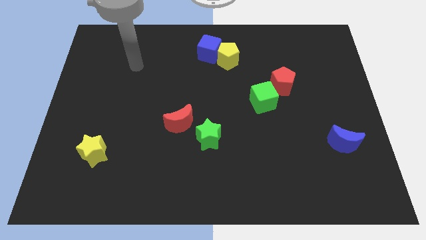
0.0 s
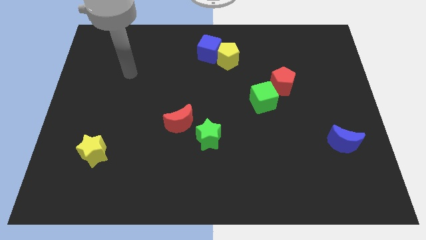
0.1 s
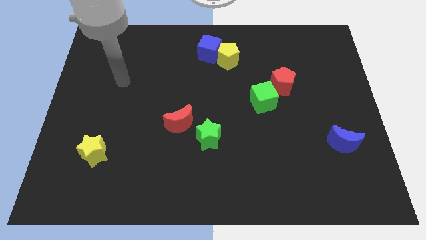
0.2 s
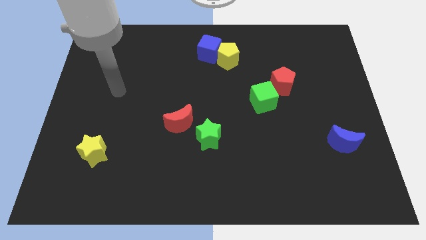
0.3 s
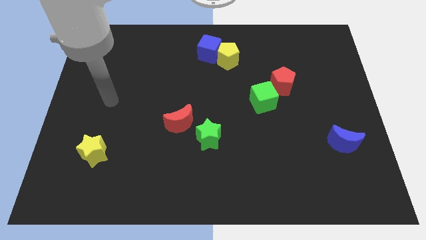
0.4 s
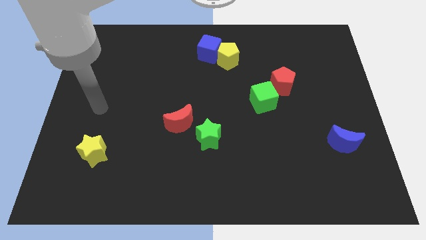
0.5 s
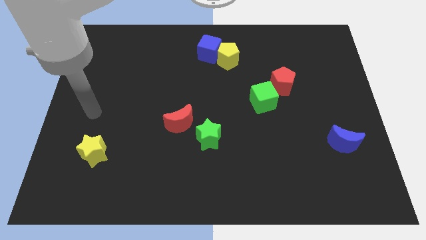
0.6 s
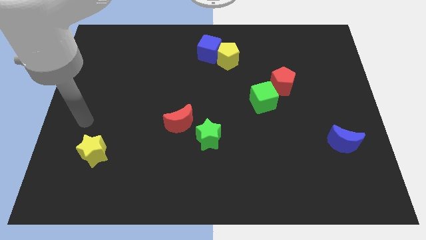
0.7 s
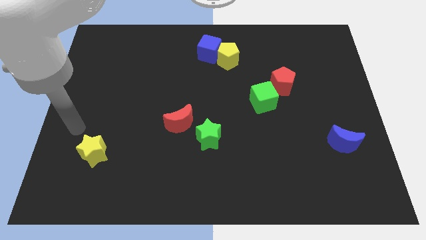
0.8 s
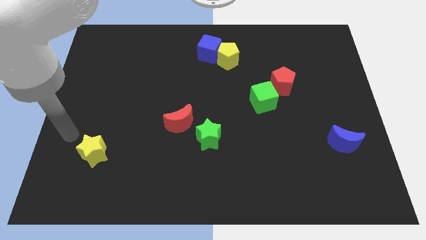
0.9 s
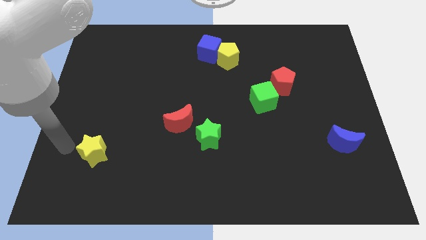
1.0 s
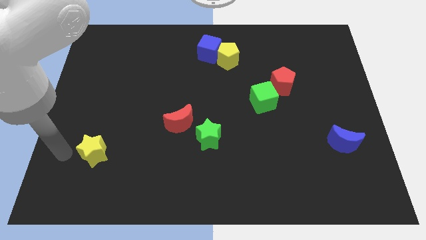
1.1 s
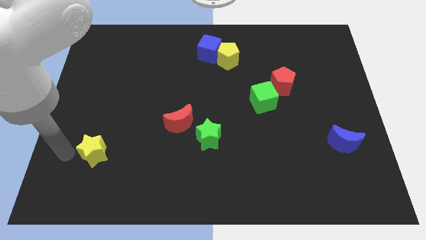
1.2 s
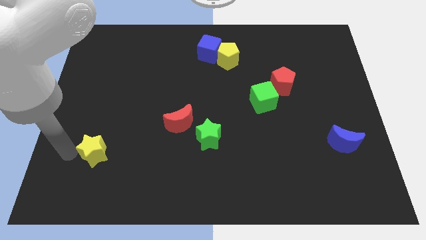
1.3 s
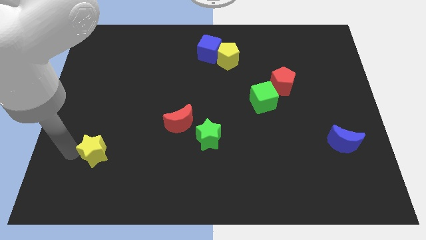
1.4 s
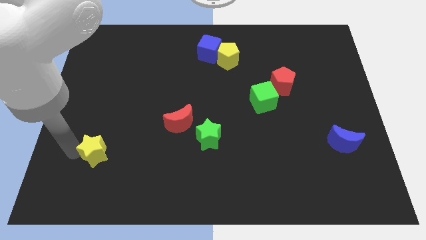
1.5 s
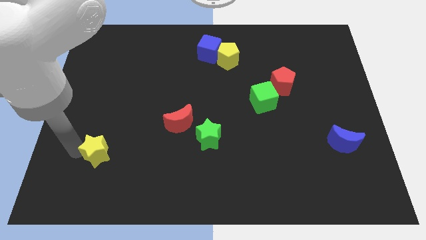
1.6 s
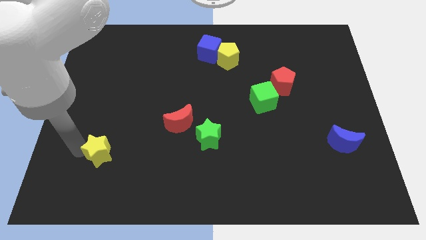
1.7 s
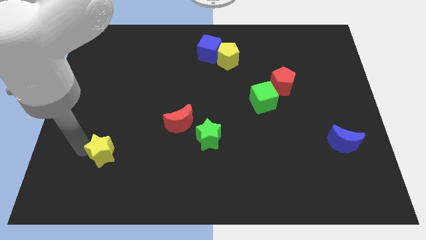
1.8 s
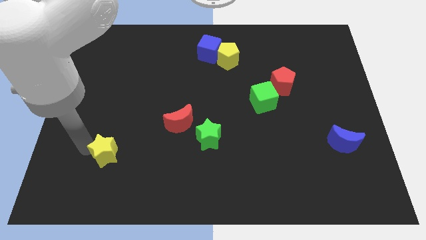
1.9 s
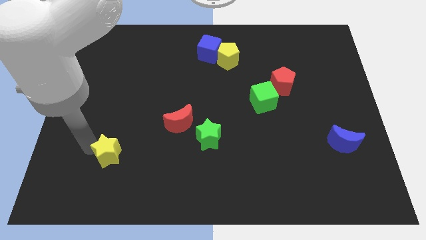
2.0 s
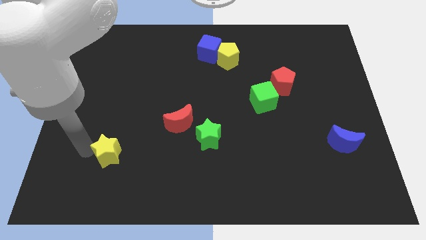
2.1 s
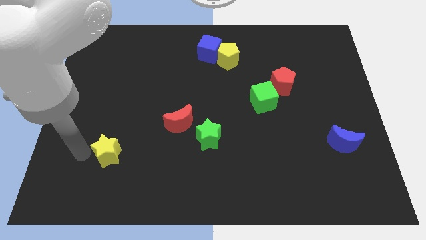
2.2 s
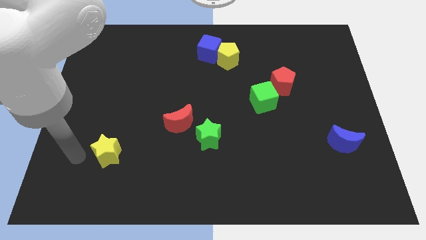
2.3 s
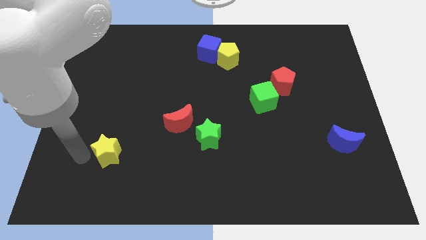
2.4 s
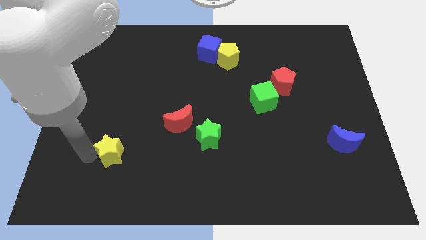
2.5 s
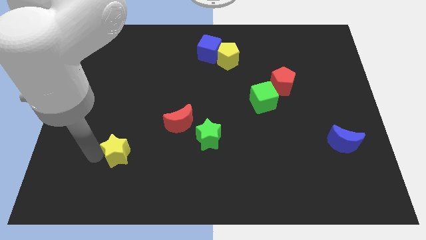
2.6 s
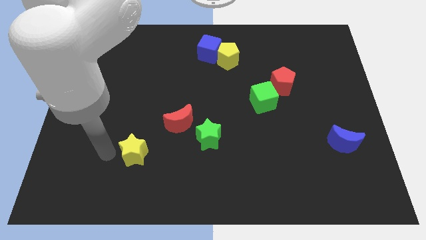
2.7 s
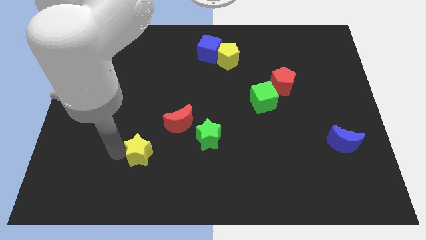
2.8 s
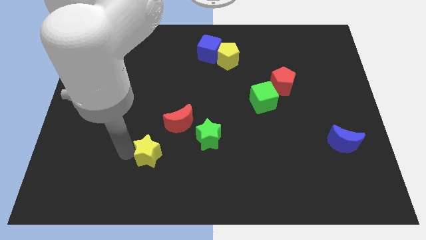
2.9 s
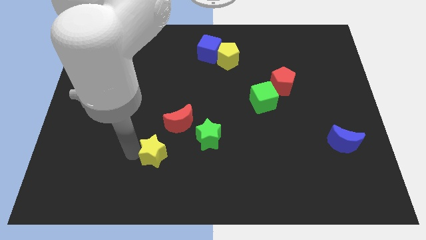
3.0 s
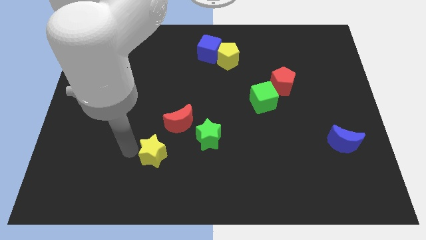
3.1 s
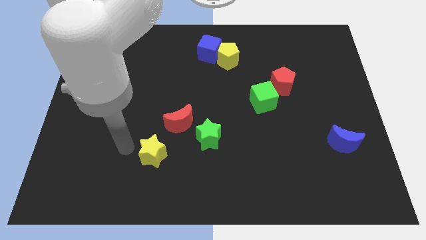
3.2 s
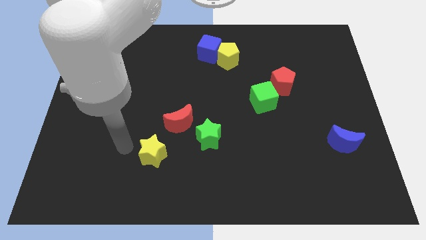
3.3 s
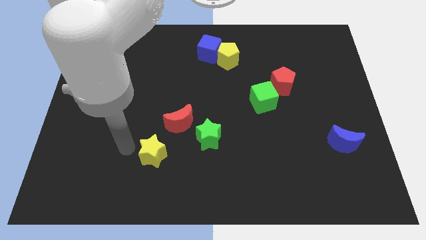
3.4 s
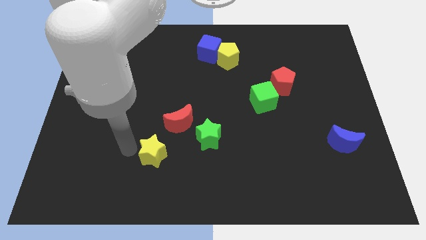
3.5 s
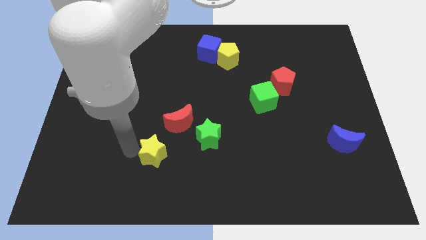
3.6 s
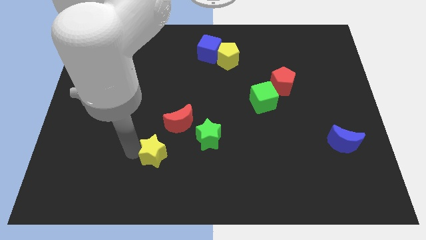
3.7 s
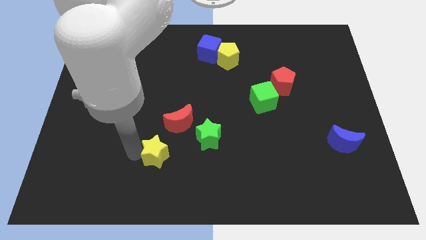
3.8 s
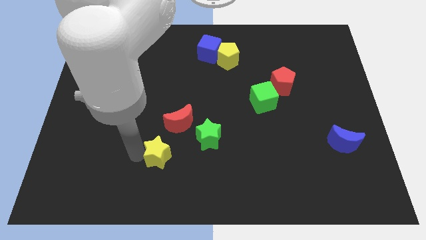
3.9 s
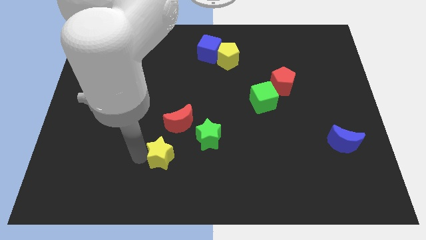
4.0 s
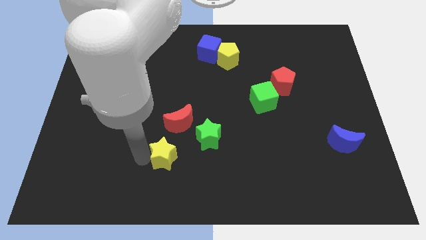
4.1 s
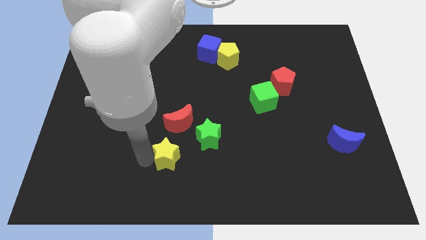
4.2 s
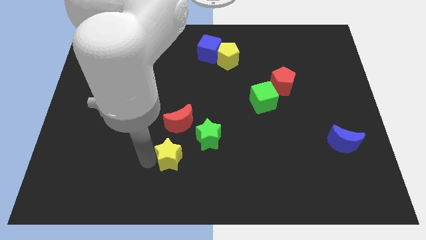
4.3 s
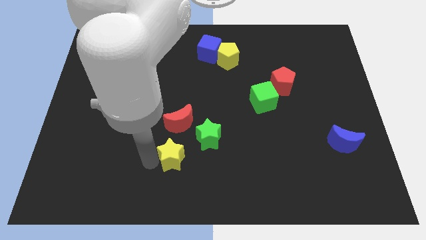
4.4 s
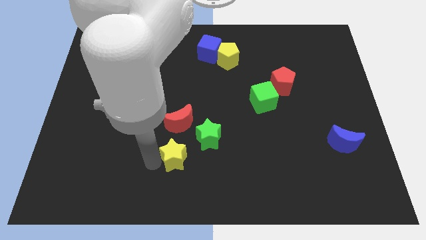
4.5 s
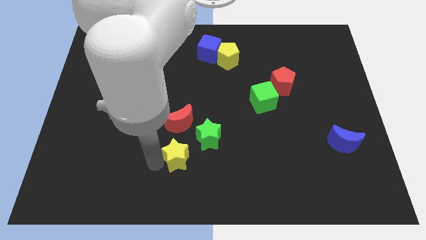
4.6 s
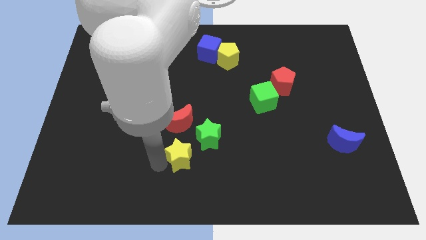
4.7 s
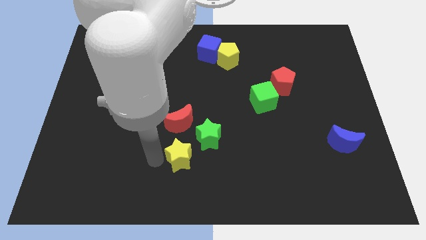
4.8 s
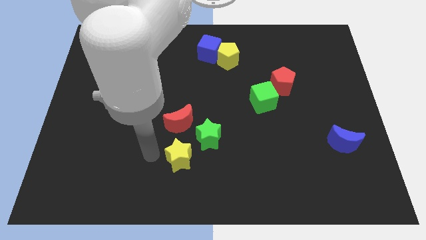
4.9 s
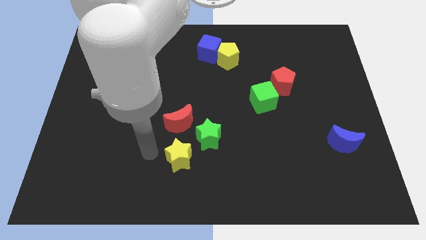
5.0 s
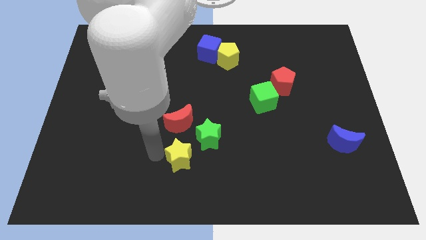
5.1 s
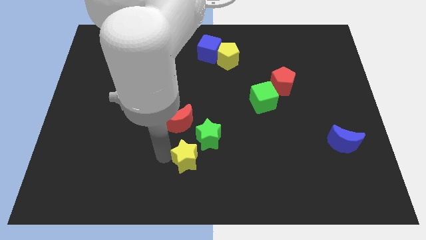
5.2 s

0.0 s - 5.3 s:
slide the yellow star right

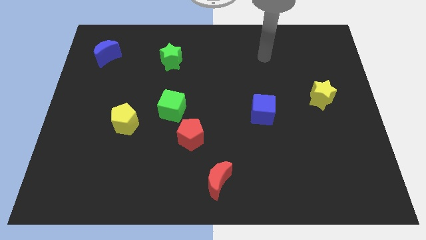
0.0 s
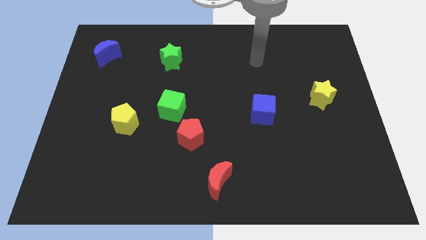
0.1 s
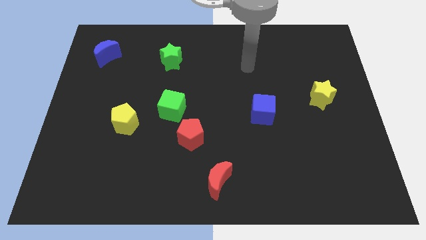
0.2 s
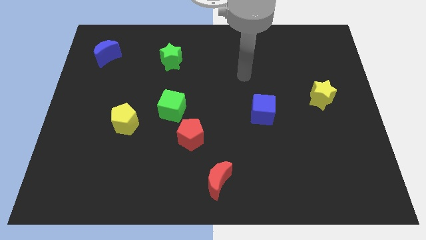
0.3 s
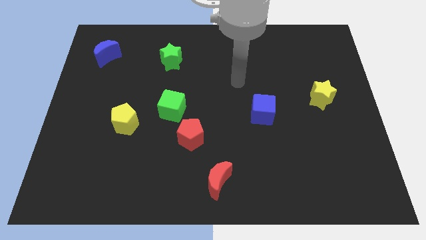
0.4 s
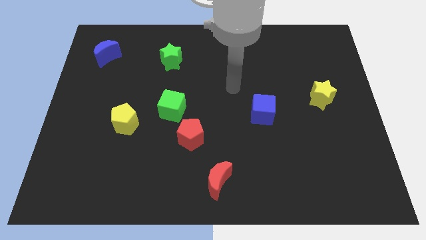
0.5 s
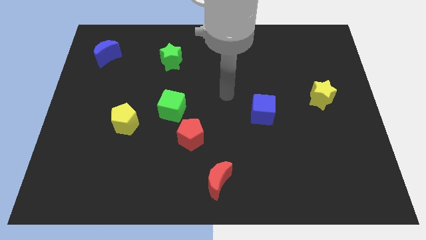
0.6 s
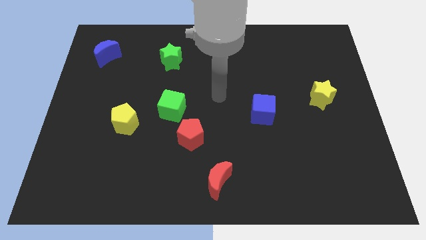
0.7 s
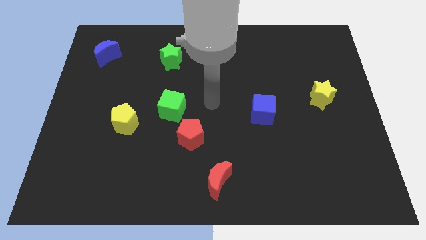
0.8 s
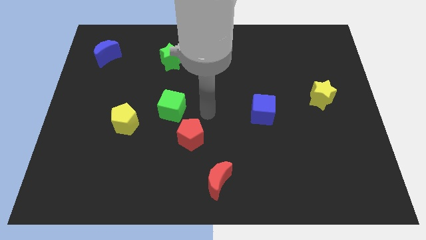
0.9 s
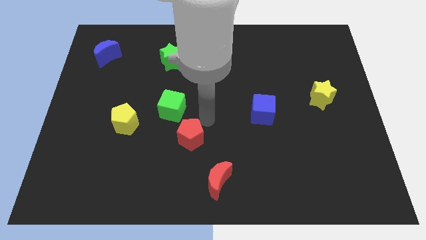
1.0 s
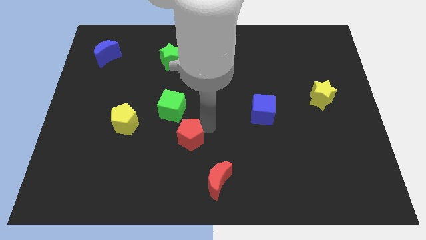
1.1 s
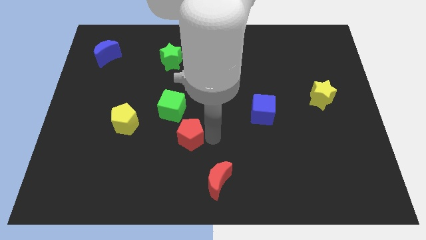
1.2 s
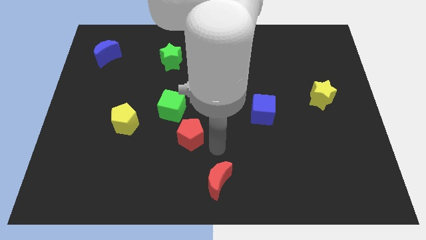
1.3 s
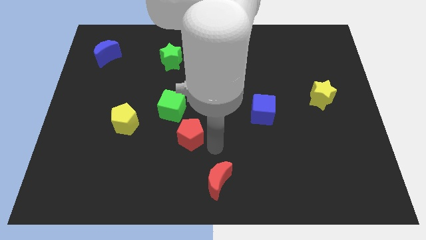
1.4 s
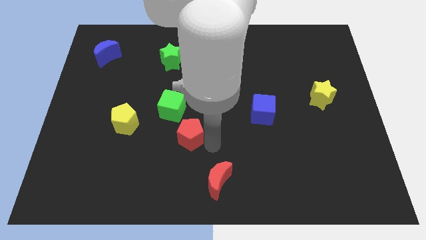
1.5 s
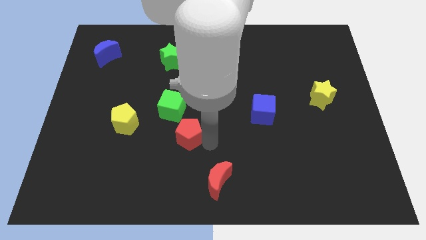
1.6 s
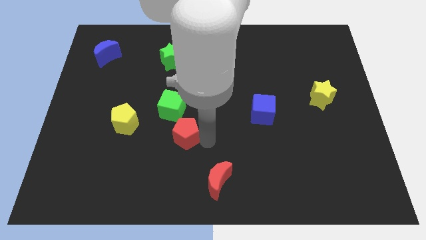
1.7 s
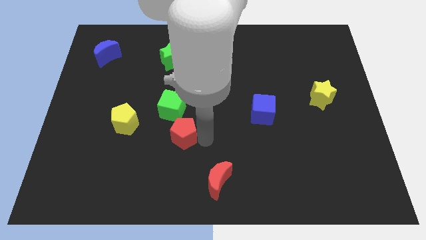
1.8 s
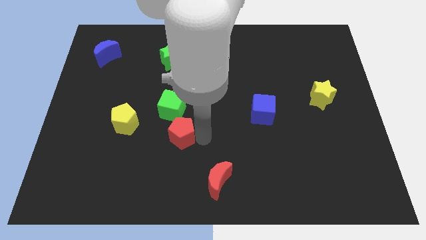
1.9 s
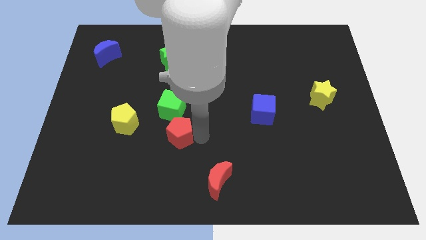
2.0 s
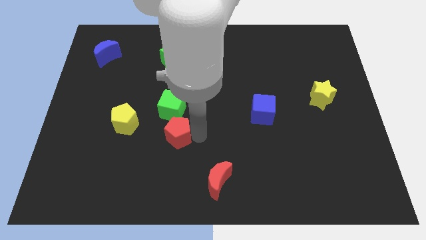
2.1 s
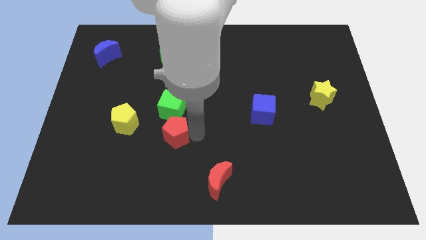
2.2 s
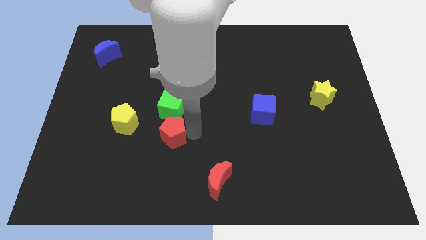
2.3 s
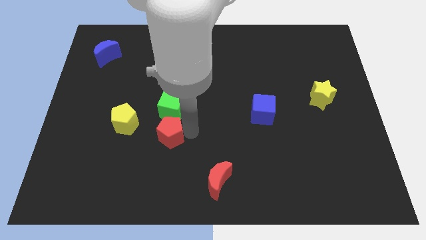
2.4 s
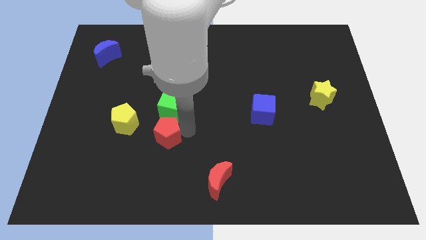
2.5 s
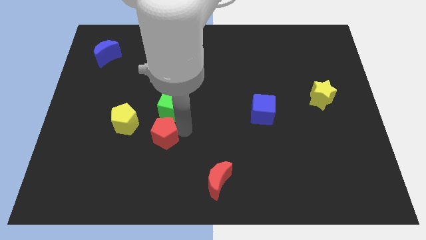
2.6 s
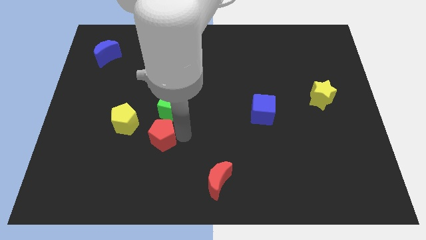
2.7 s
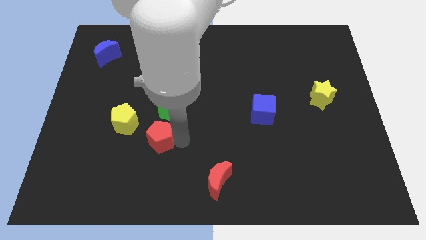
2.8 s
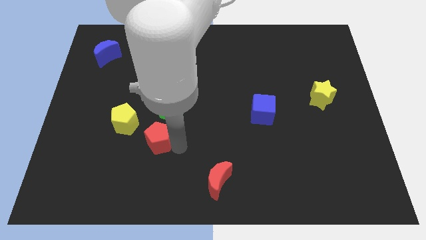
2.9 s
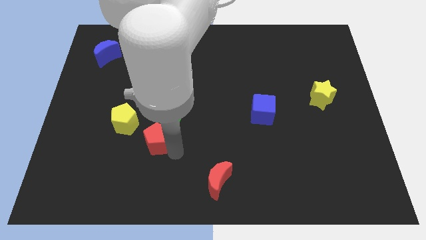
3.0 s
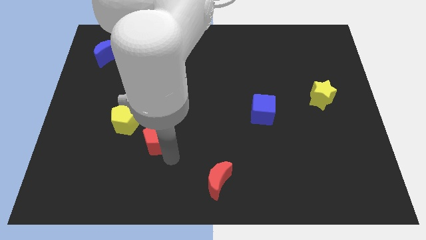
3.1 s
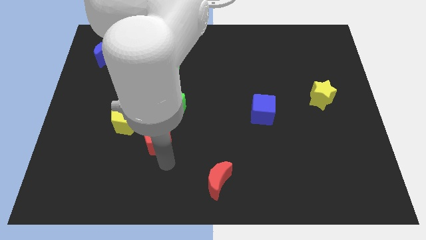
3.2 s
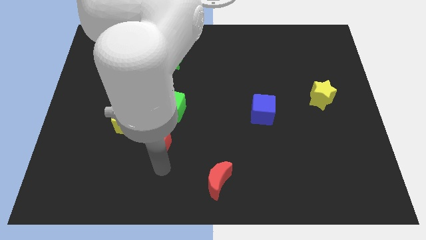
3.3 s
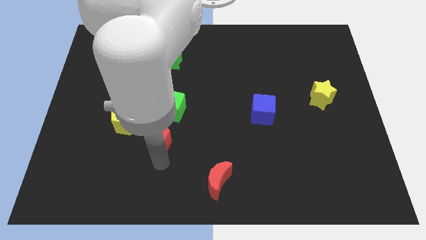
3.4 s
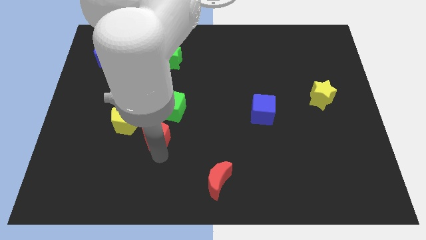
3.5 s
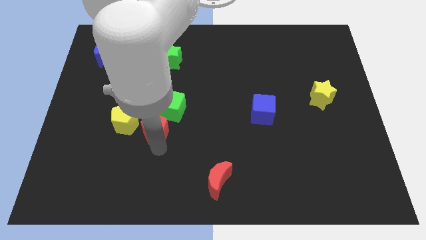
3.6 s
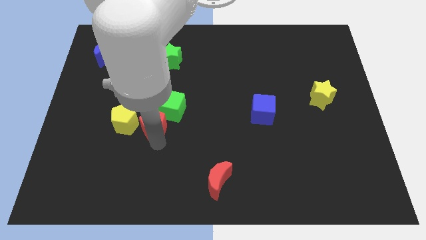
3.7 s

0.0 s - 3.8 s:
slide the red pentagon a bit up and left diagonally
